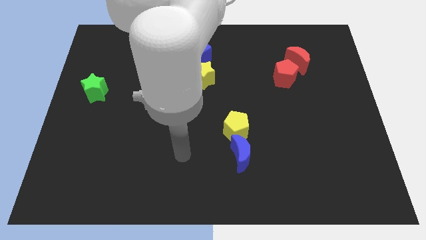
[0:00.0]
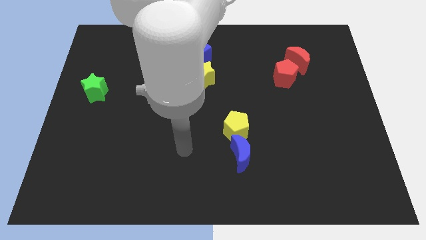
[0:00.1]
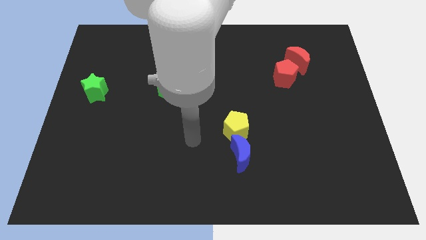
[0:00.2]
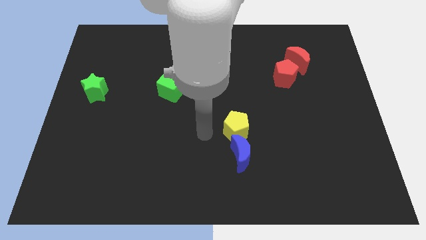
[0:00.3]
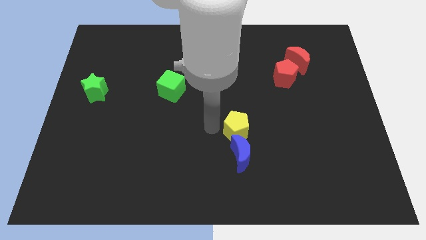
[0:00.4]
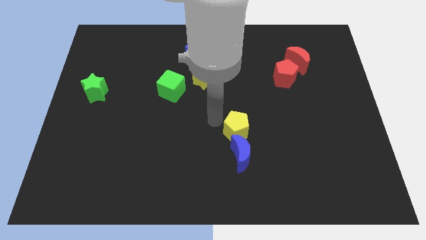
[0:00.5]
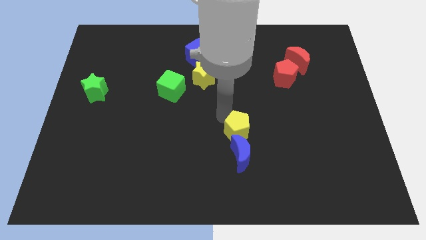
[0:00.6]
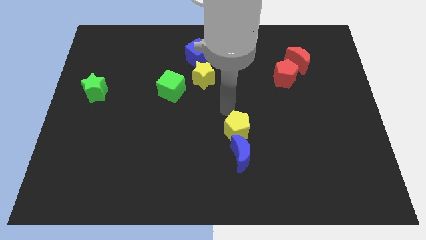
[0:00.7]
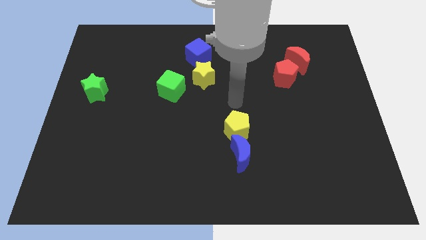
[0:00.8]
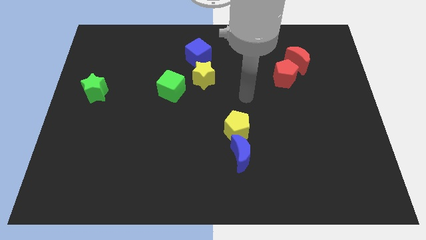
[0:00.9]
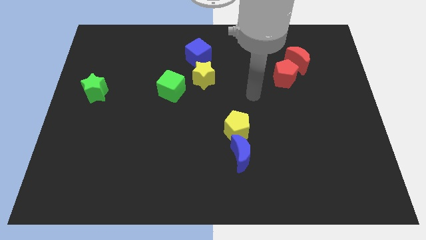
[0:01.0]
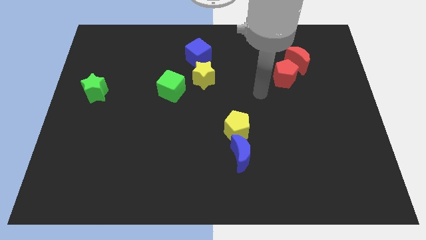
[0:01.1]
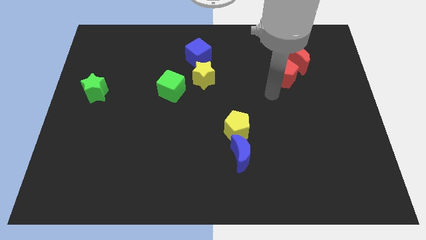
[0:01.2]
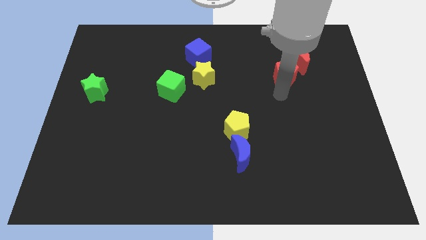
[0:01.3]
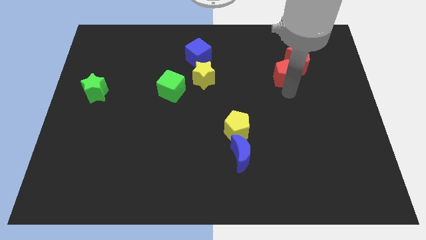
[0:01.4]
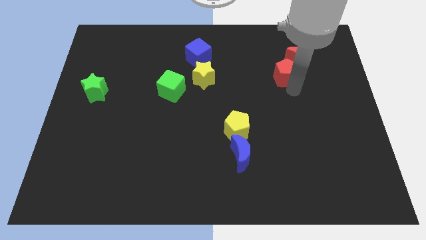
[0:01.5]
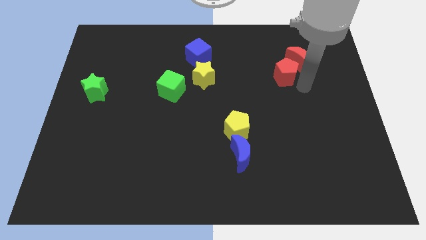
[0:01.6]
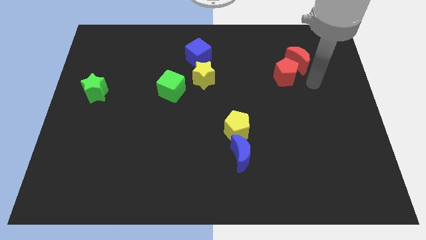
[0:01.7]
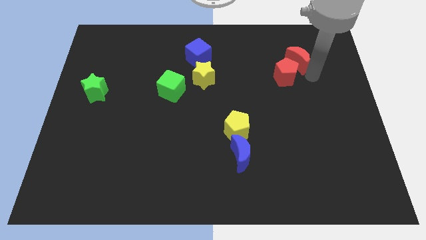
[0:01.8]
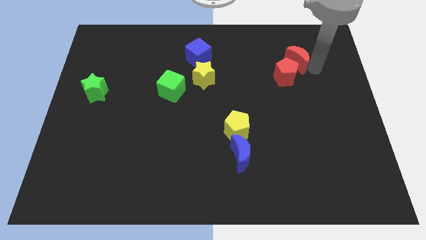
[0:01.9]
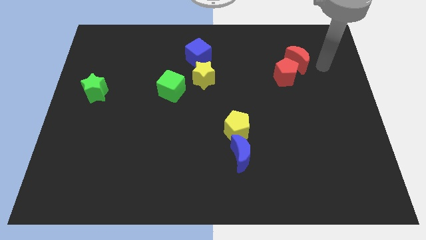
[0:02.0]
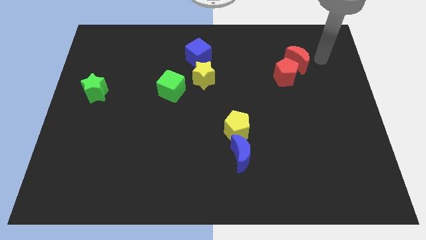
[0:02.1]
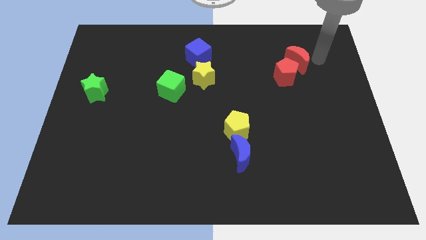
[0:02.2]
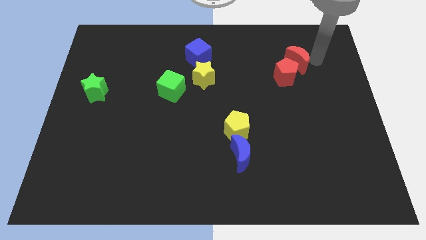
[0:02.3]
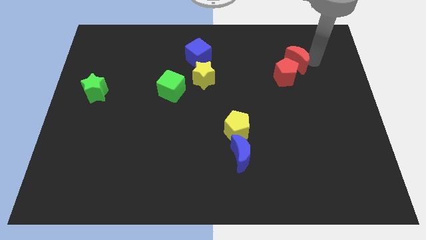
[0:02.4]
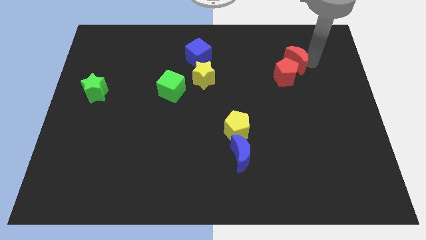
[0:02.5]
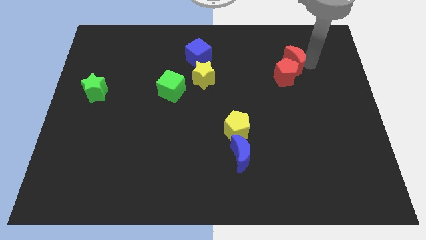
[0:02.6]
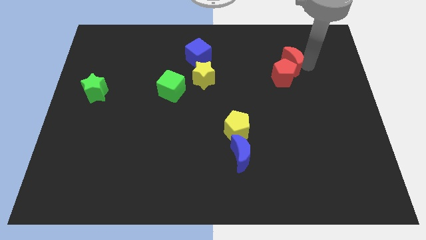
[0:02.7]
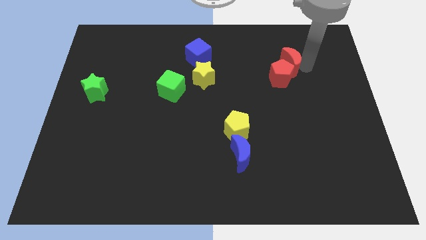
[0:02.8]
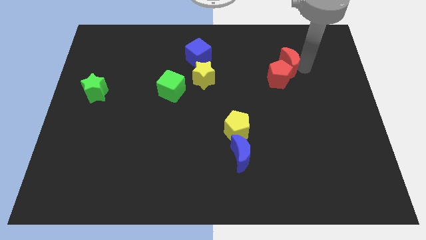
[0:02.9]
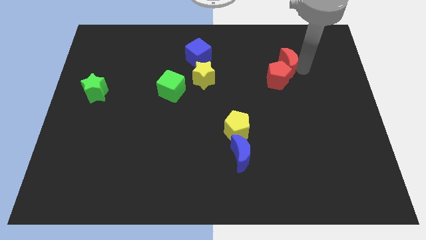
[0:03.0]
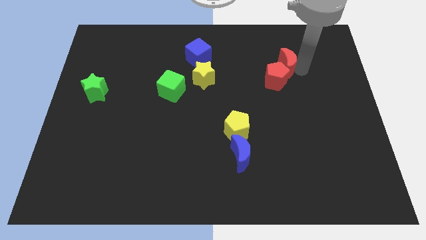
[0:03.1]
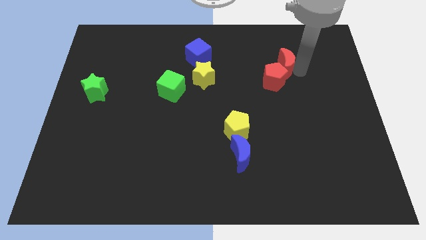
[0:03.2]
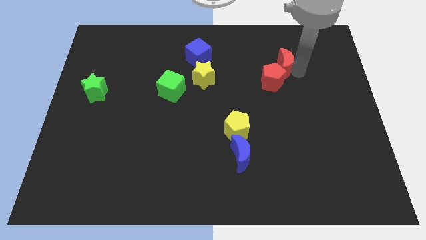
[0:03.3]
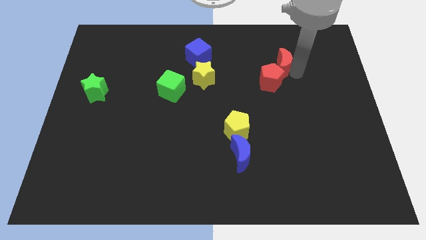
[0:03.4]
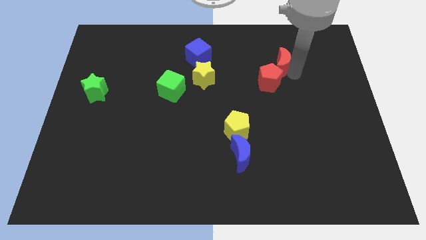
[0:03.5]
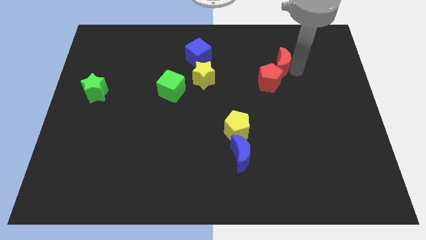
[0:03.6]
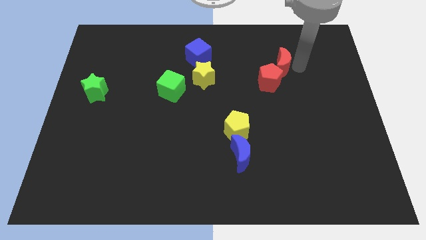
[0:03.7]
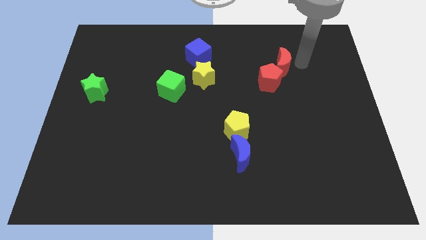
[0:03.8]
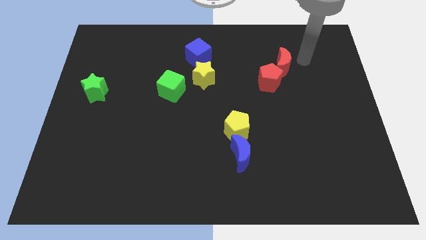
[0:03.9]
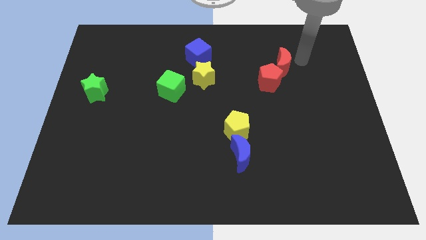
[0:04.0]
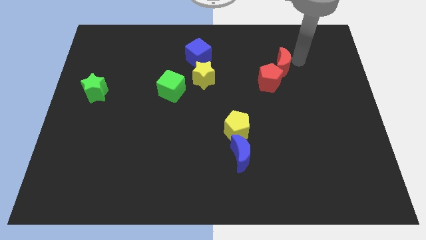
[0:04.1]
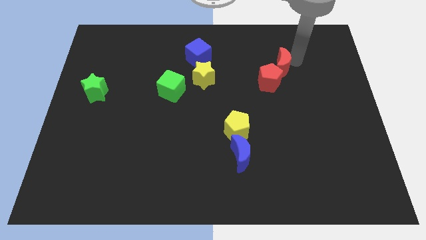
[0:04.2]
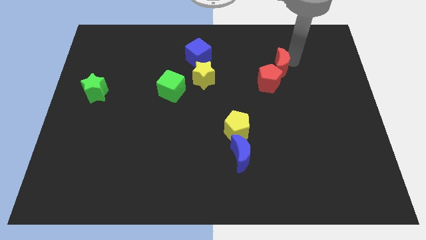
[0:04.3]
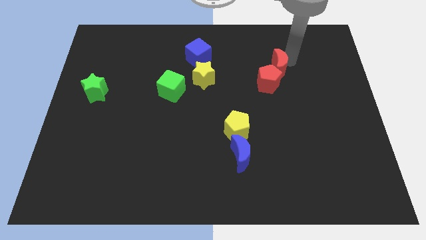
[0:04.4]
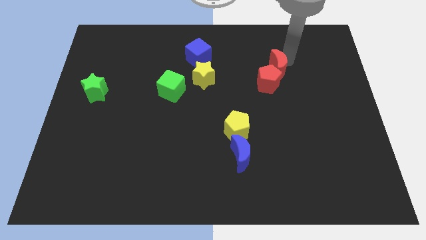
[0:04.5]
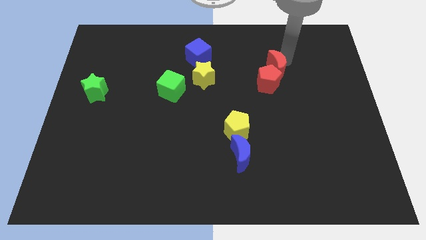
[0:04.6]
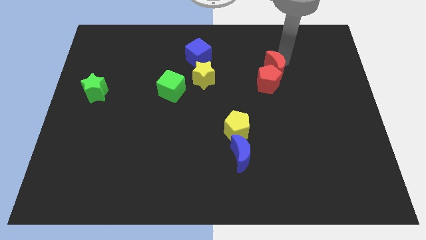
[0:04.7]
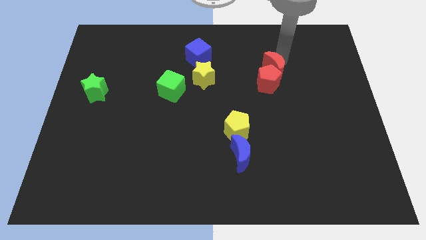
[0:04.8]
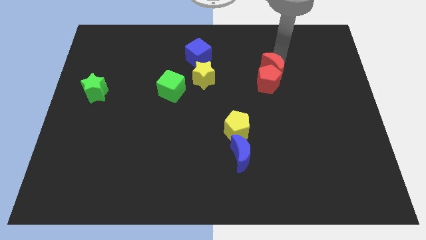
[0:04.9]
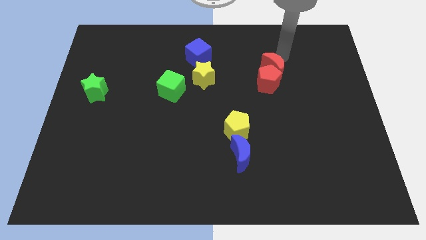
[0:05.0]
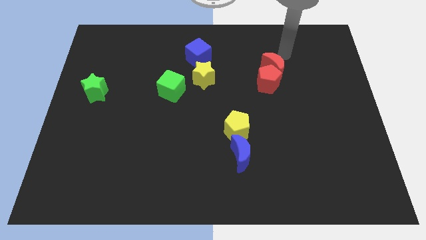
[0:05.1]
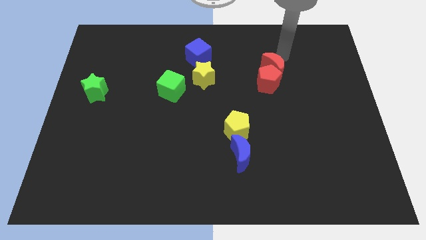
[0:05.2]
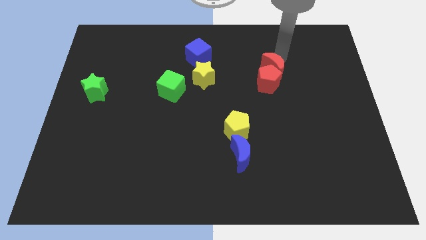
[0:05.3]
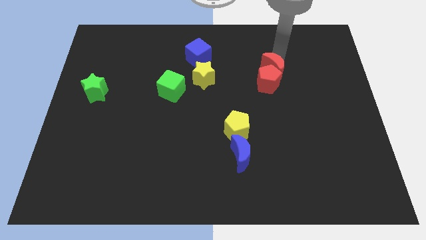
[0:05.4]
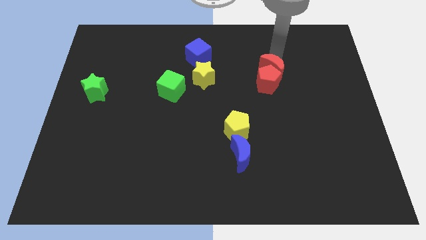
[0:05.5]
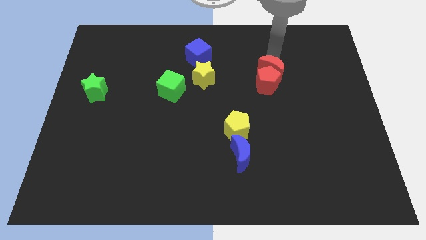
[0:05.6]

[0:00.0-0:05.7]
slightly push the red moon downwards and to the left

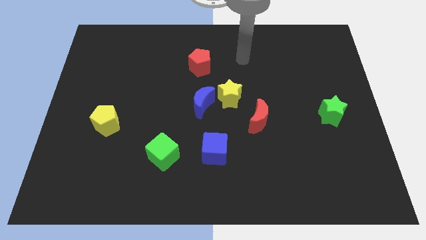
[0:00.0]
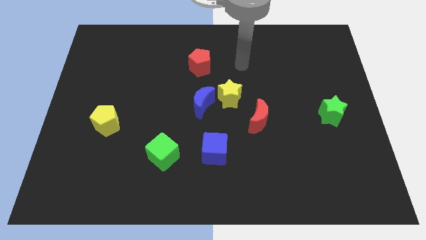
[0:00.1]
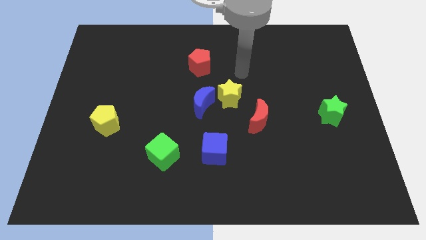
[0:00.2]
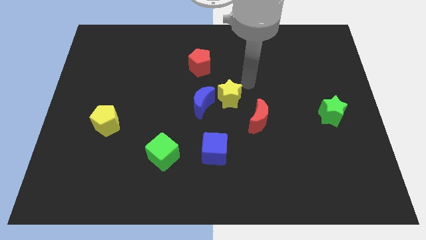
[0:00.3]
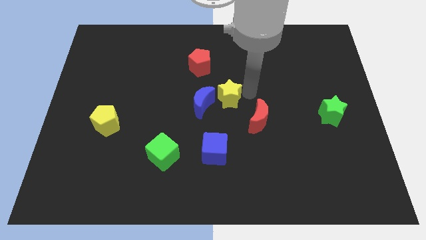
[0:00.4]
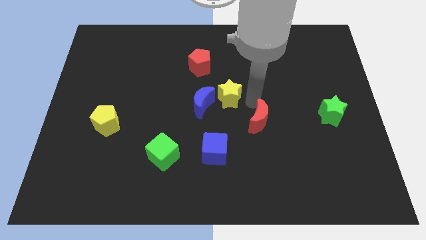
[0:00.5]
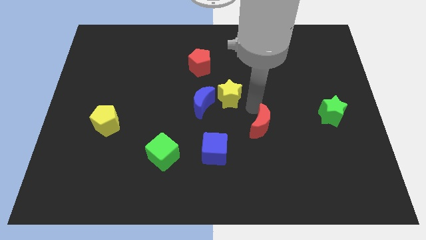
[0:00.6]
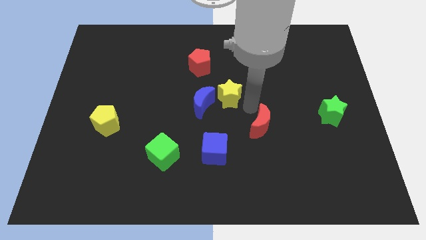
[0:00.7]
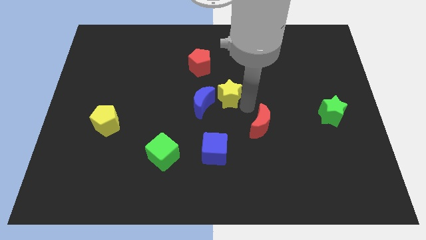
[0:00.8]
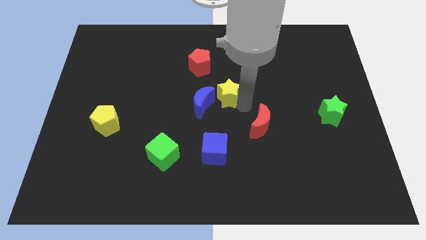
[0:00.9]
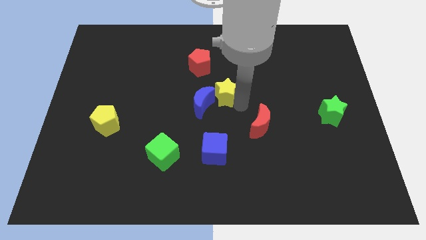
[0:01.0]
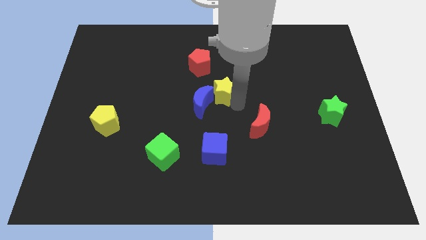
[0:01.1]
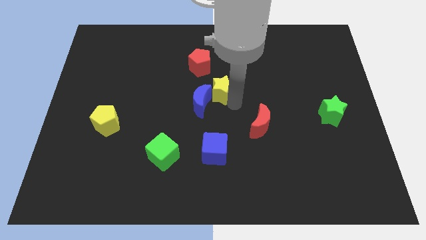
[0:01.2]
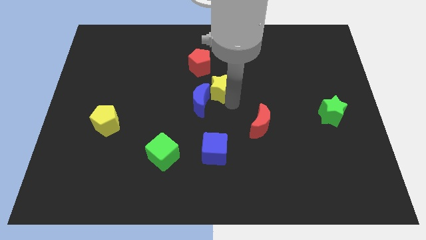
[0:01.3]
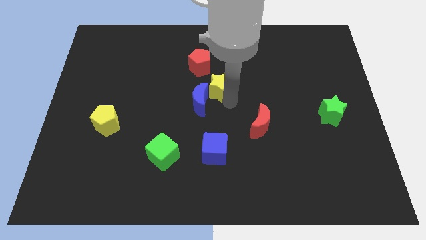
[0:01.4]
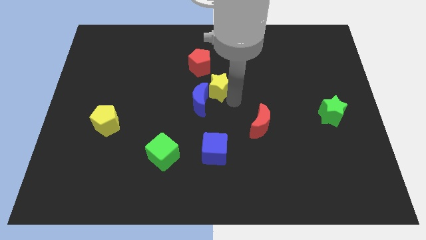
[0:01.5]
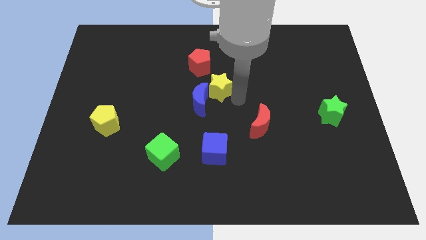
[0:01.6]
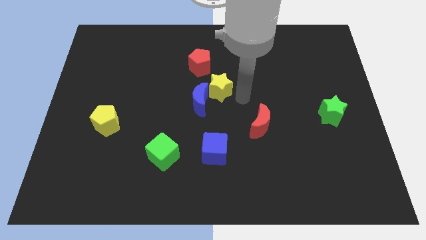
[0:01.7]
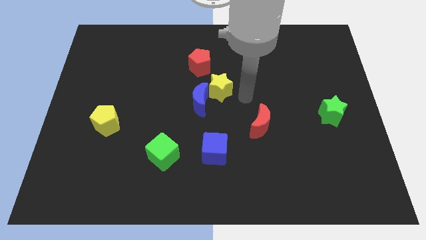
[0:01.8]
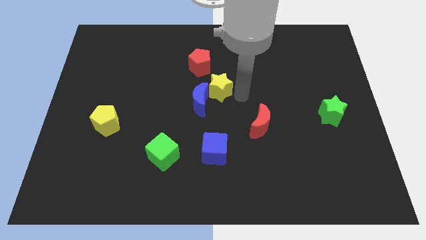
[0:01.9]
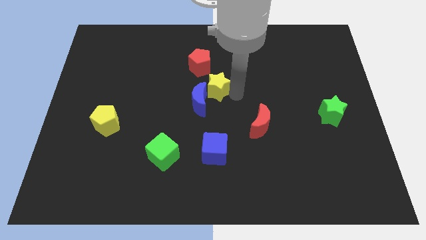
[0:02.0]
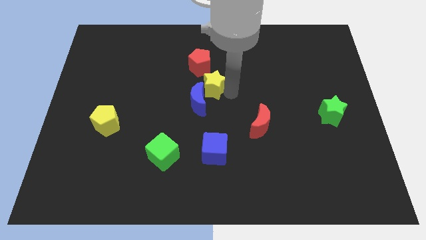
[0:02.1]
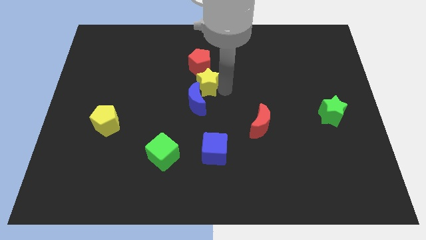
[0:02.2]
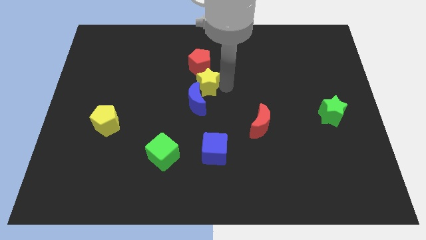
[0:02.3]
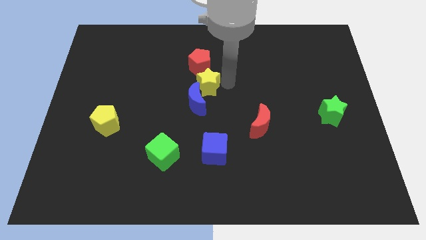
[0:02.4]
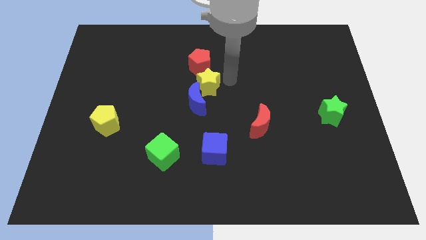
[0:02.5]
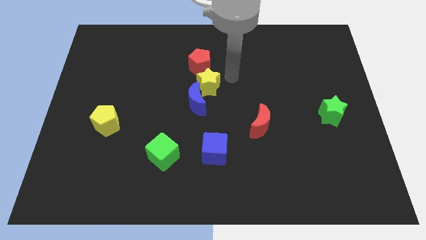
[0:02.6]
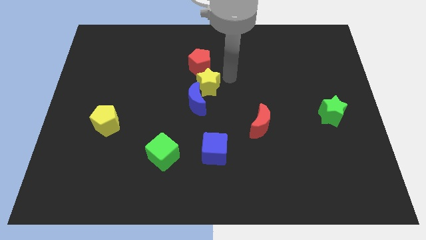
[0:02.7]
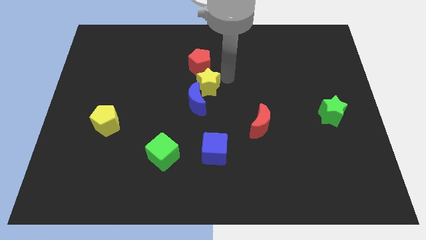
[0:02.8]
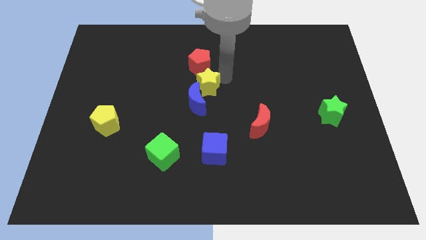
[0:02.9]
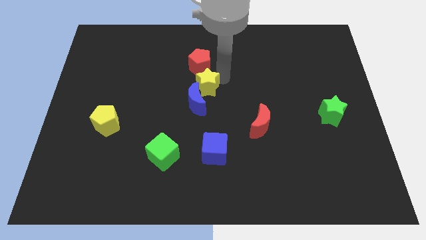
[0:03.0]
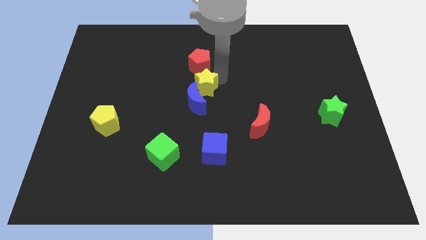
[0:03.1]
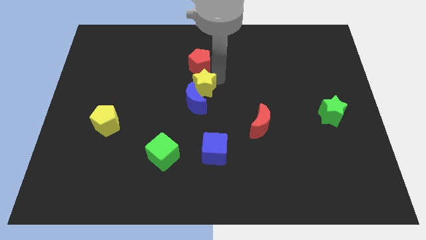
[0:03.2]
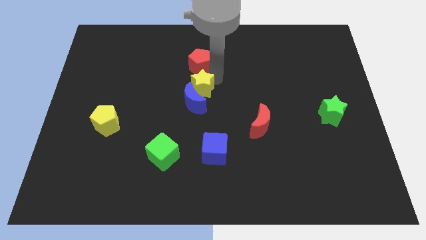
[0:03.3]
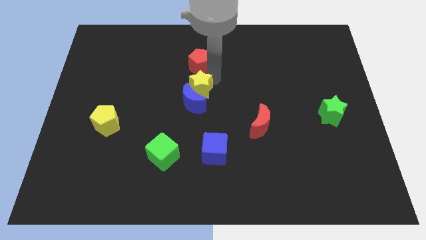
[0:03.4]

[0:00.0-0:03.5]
move the yellow star a bit to the left
